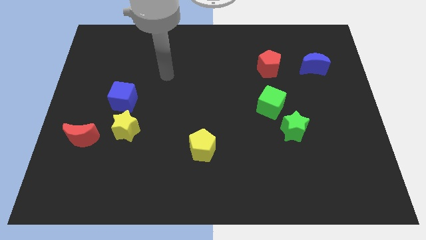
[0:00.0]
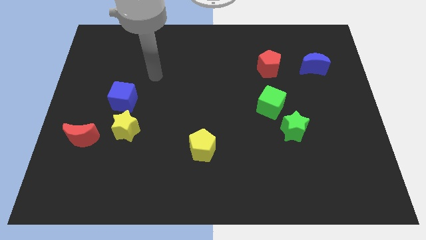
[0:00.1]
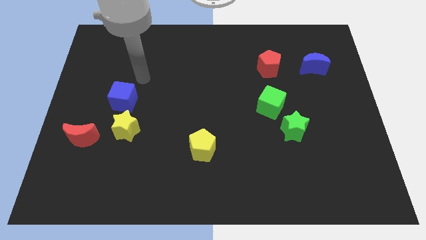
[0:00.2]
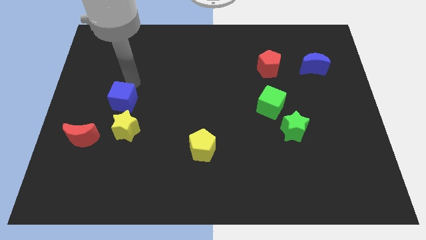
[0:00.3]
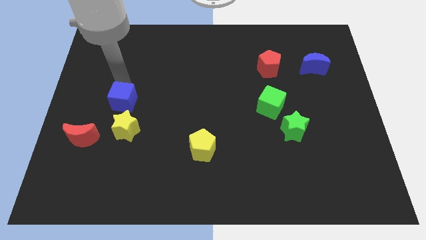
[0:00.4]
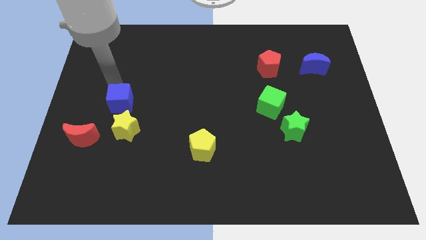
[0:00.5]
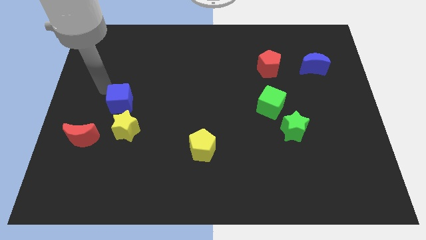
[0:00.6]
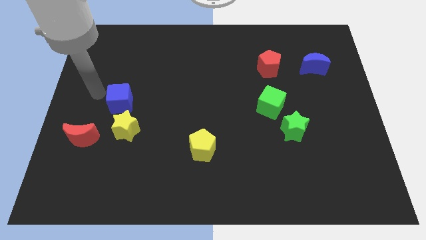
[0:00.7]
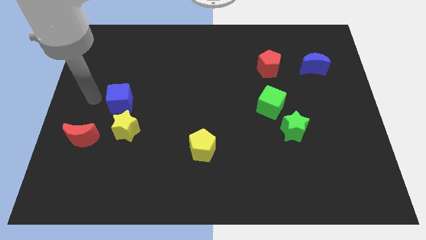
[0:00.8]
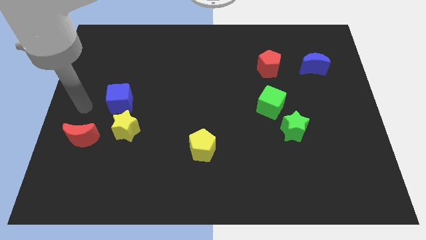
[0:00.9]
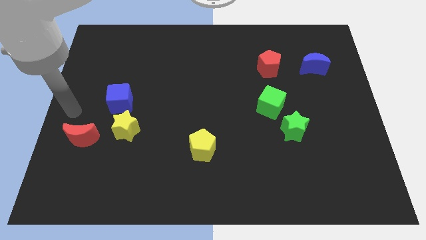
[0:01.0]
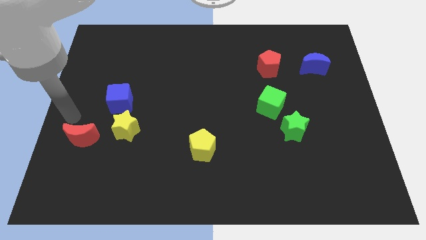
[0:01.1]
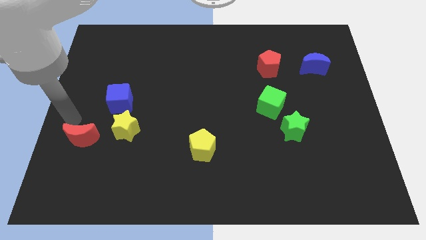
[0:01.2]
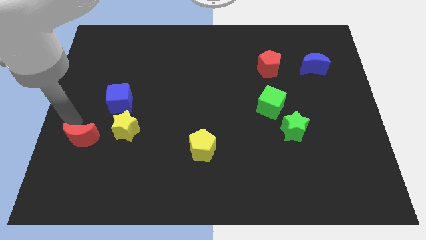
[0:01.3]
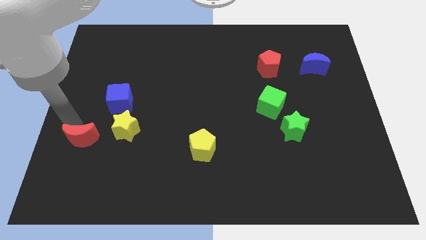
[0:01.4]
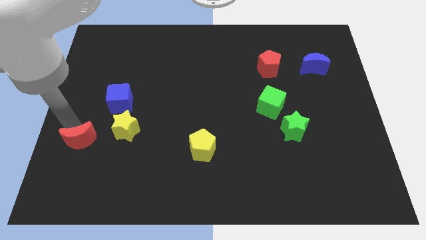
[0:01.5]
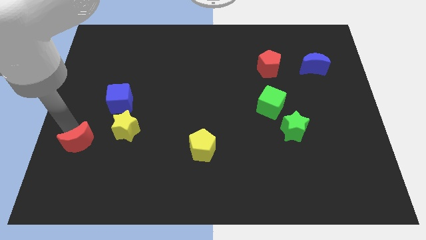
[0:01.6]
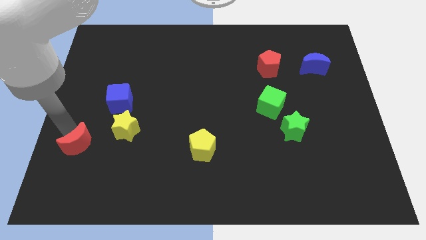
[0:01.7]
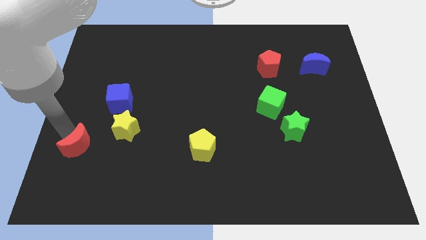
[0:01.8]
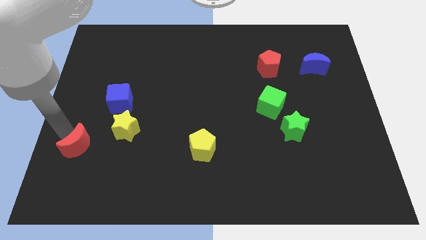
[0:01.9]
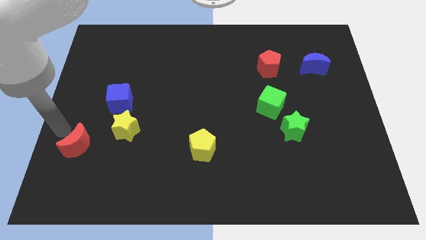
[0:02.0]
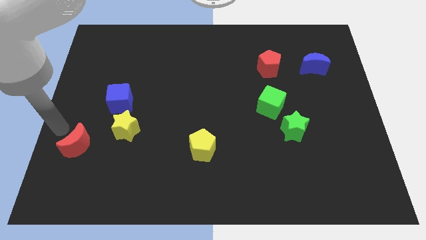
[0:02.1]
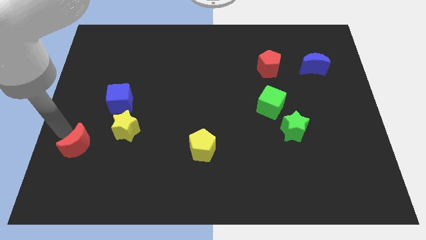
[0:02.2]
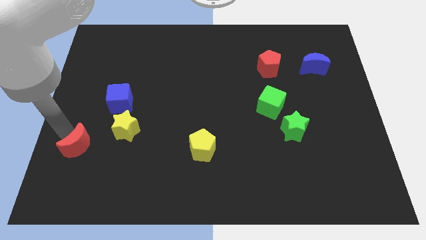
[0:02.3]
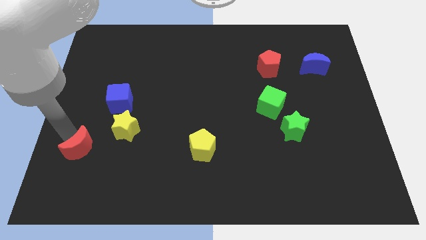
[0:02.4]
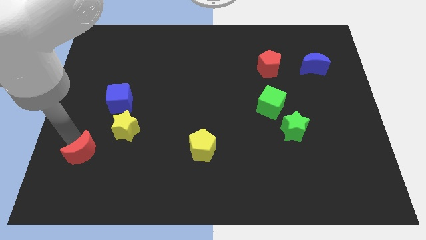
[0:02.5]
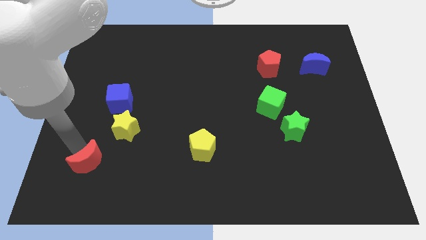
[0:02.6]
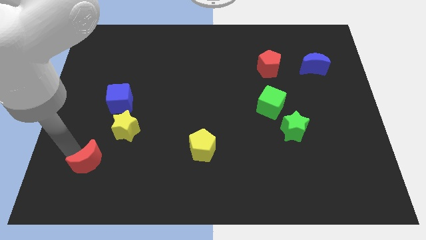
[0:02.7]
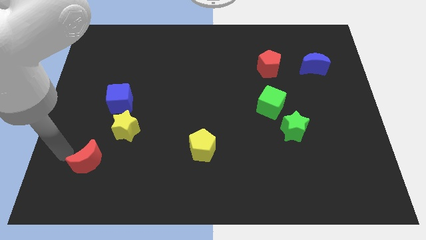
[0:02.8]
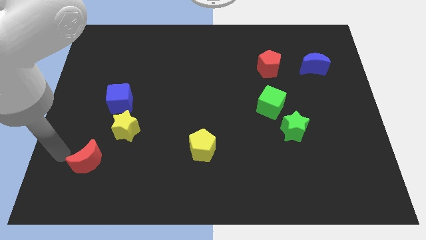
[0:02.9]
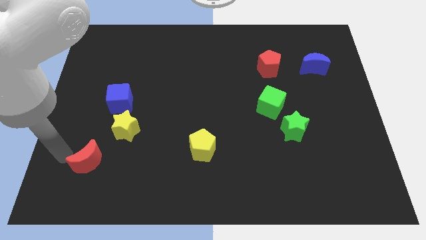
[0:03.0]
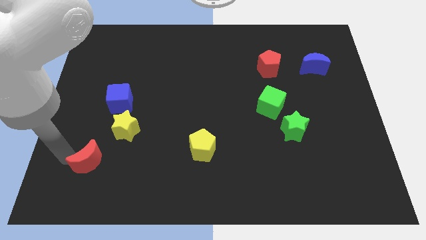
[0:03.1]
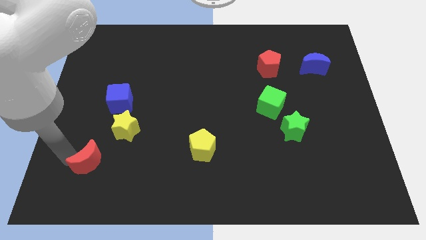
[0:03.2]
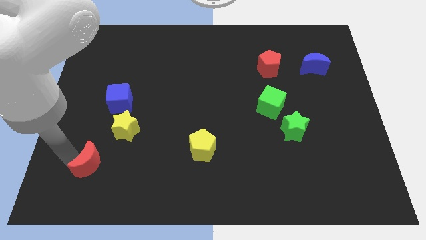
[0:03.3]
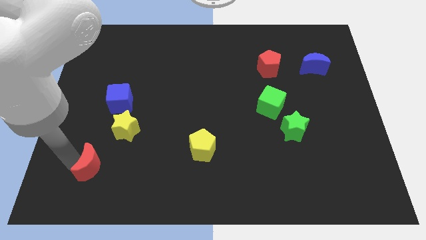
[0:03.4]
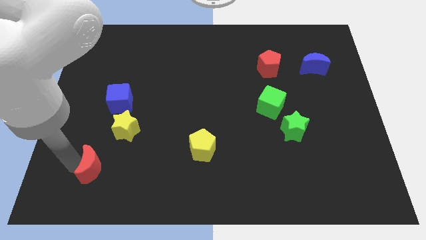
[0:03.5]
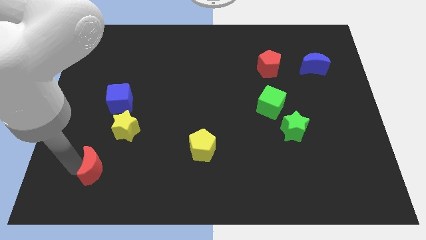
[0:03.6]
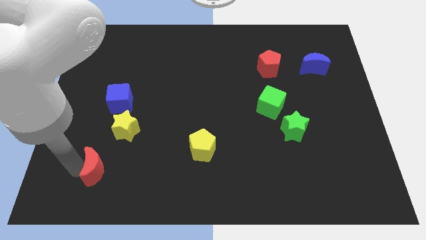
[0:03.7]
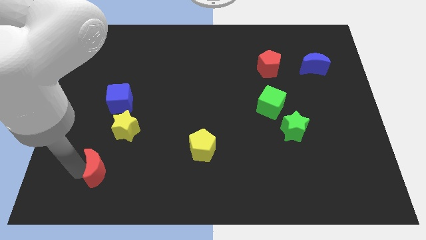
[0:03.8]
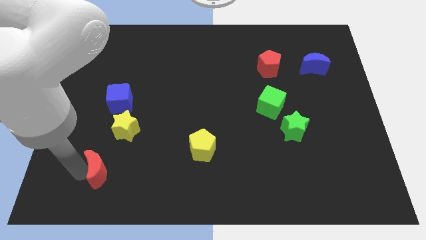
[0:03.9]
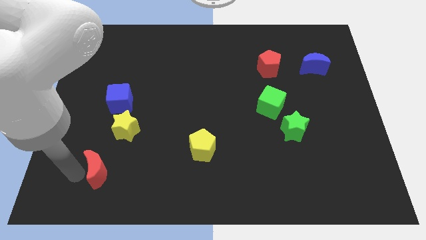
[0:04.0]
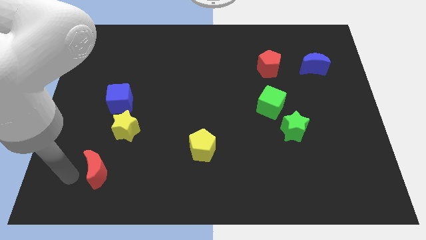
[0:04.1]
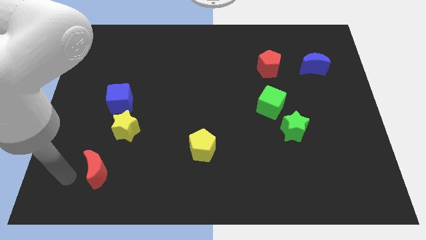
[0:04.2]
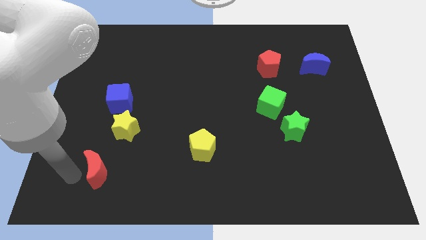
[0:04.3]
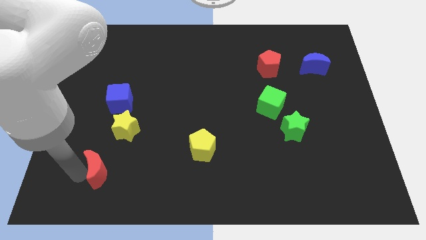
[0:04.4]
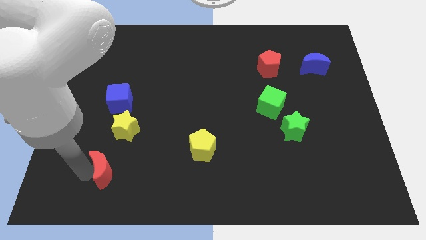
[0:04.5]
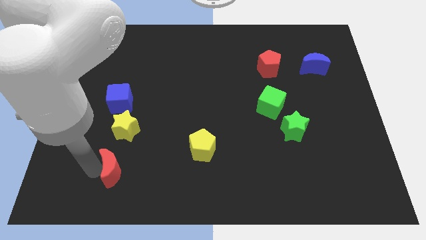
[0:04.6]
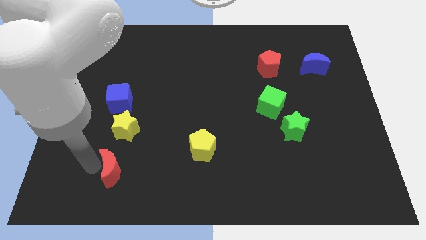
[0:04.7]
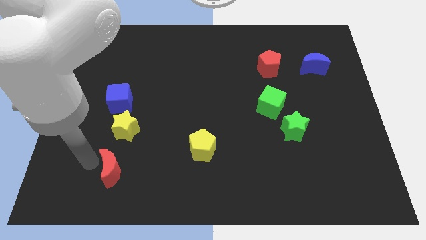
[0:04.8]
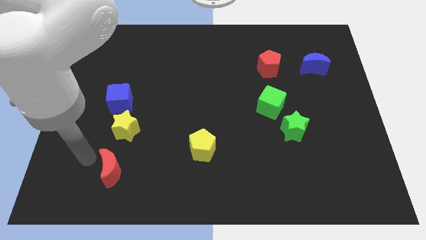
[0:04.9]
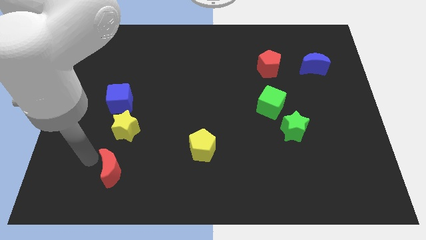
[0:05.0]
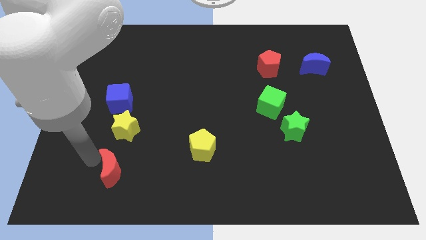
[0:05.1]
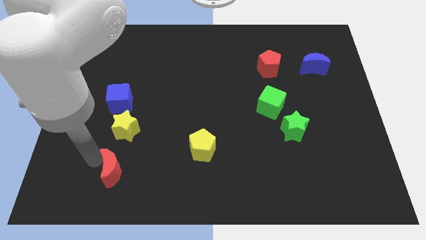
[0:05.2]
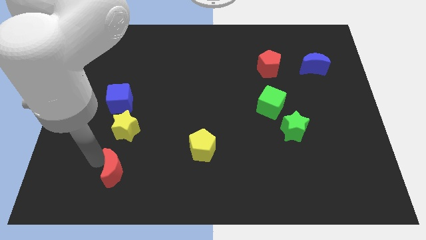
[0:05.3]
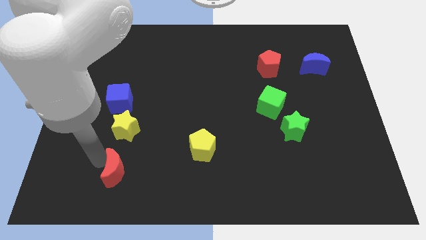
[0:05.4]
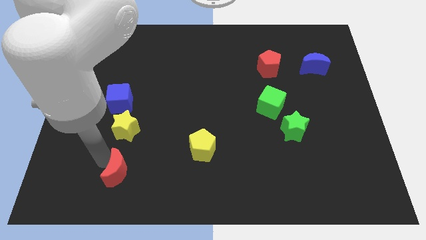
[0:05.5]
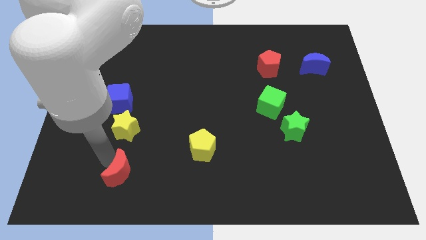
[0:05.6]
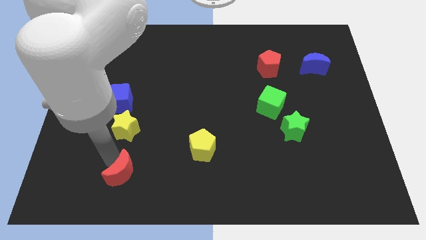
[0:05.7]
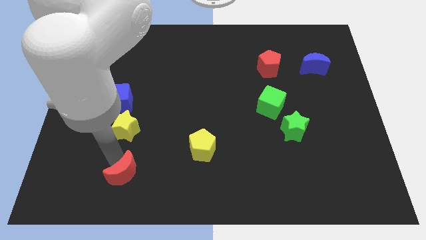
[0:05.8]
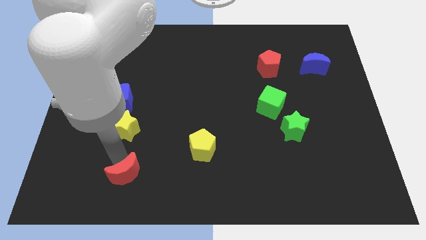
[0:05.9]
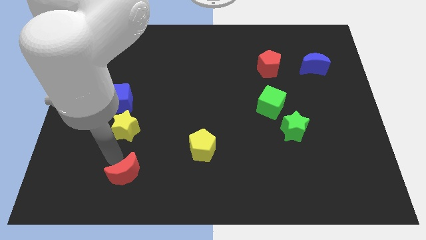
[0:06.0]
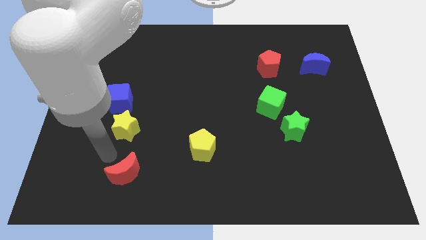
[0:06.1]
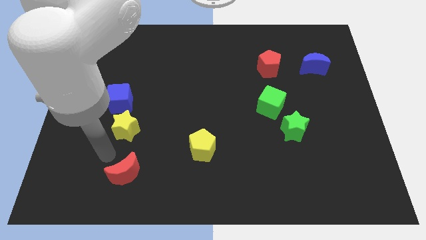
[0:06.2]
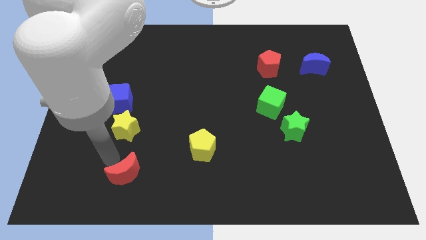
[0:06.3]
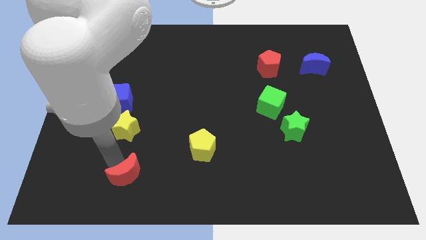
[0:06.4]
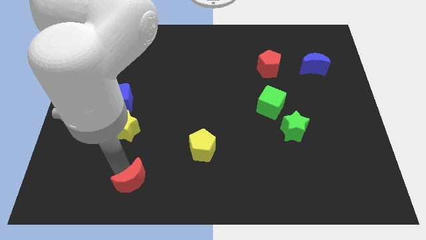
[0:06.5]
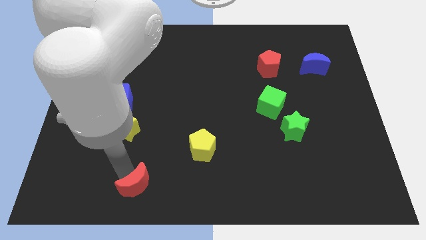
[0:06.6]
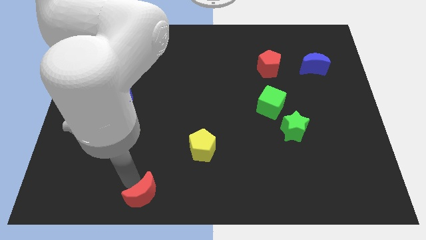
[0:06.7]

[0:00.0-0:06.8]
push the red moon to the bottom side
